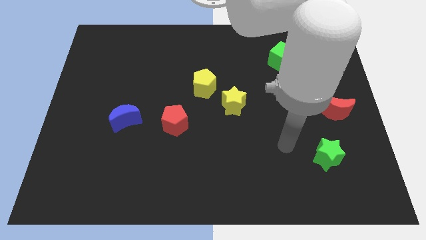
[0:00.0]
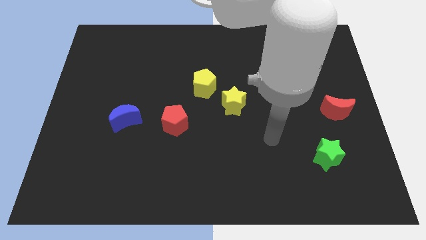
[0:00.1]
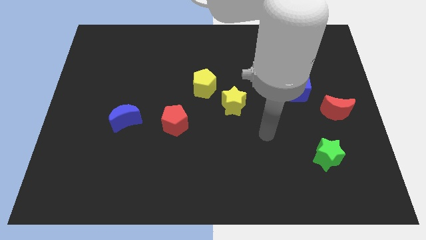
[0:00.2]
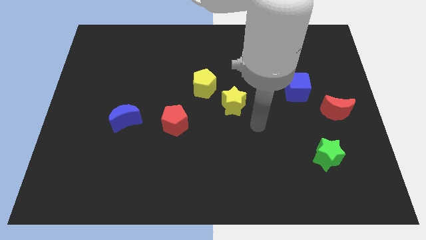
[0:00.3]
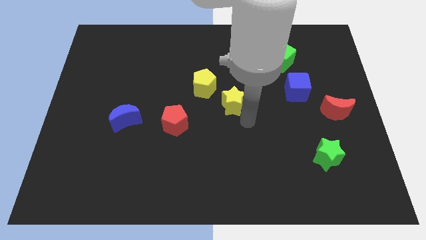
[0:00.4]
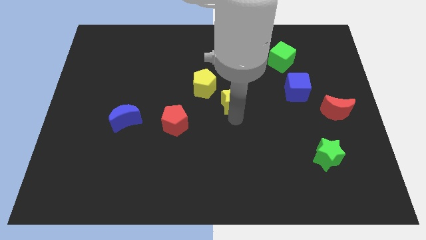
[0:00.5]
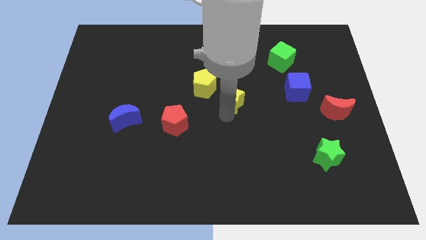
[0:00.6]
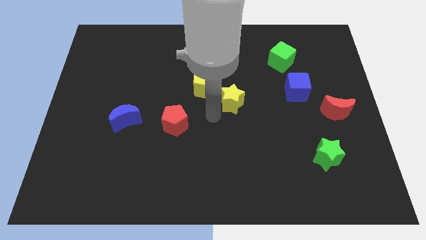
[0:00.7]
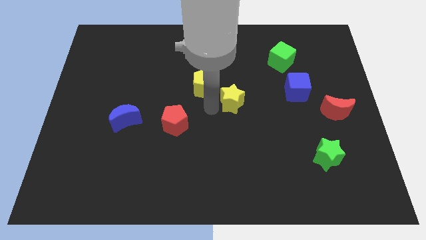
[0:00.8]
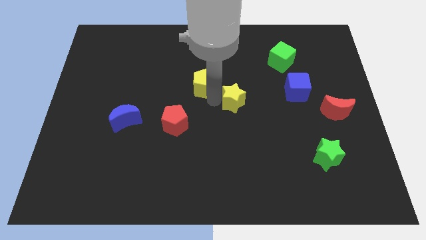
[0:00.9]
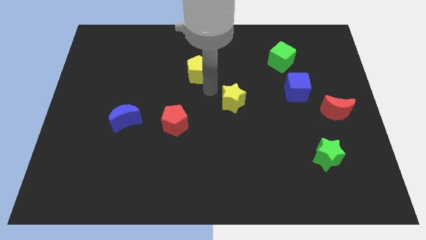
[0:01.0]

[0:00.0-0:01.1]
move the yellow star away from the yellow pentagon

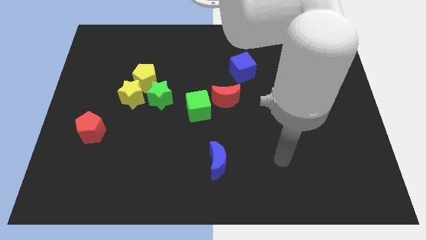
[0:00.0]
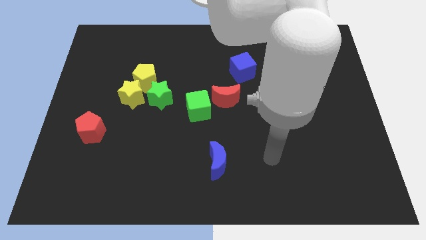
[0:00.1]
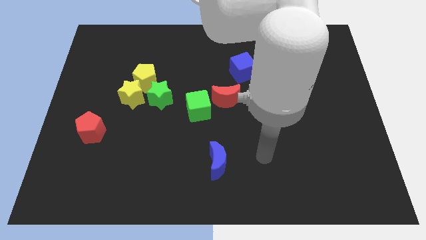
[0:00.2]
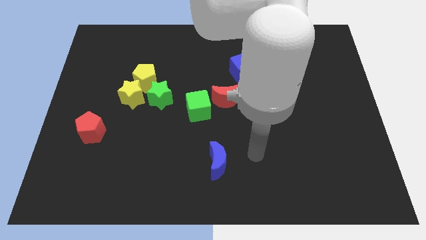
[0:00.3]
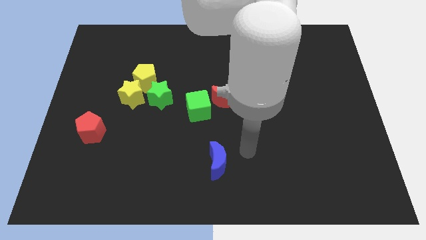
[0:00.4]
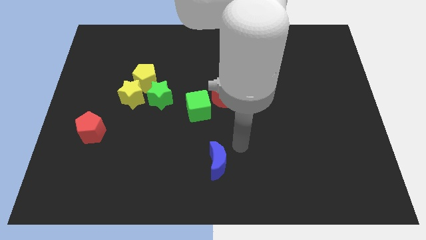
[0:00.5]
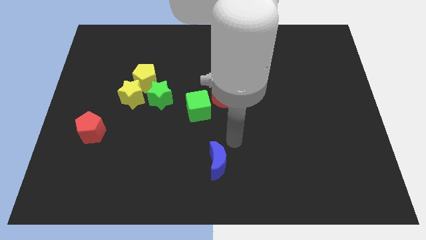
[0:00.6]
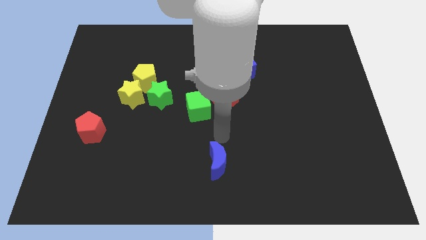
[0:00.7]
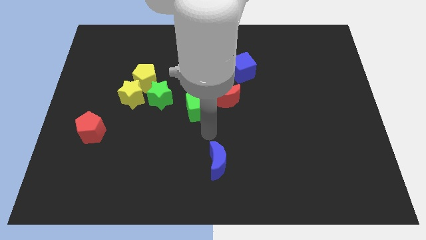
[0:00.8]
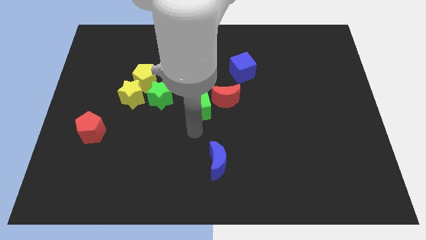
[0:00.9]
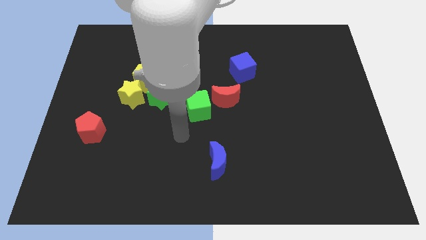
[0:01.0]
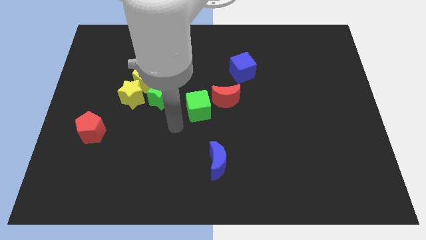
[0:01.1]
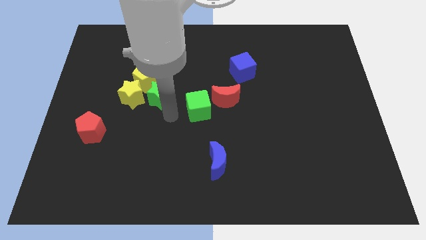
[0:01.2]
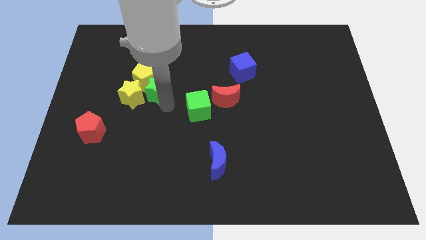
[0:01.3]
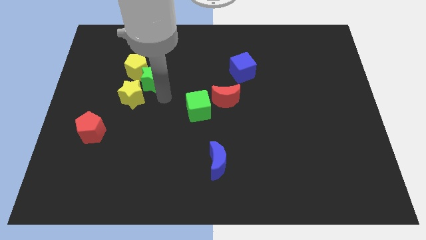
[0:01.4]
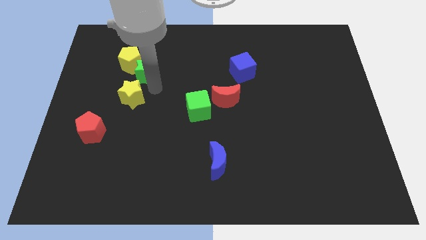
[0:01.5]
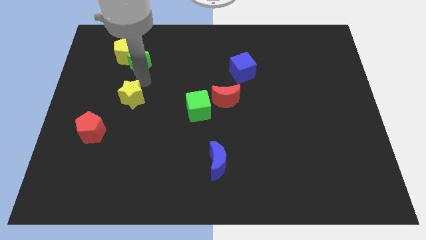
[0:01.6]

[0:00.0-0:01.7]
separate the yellow star from the yellow pentagon and green star

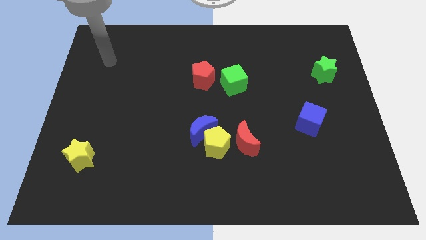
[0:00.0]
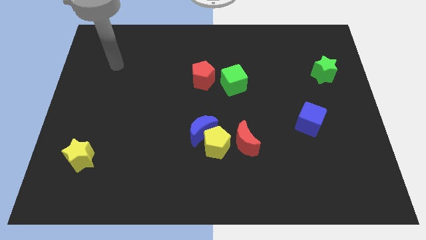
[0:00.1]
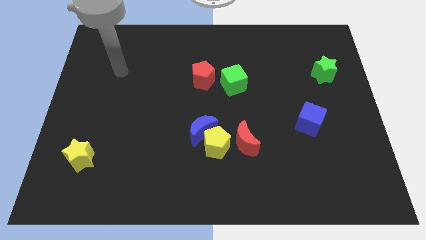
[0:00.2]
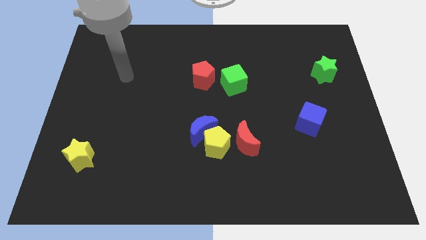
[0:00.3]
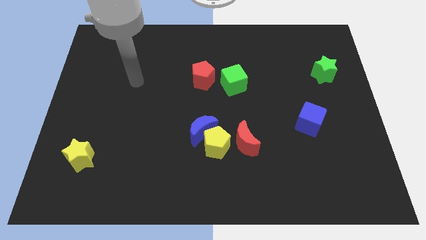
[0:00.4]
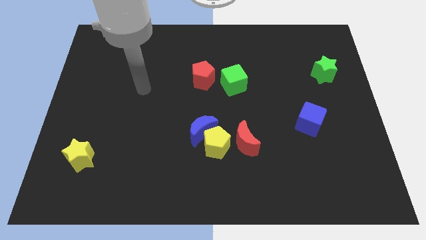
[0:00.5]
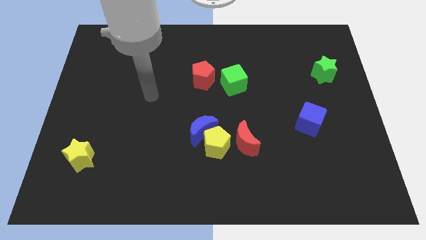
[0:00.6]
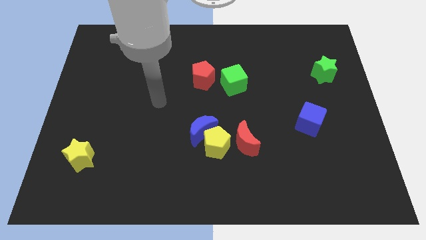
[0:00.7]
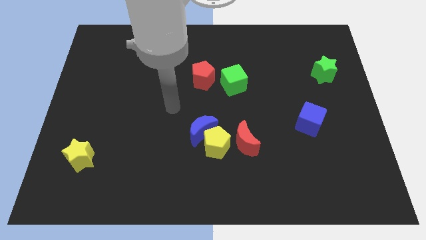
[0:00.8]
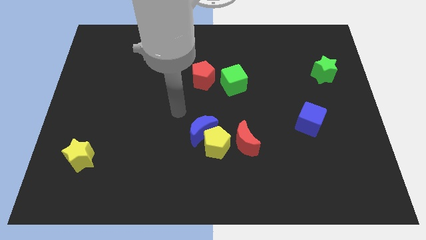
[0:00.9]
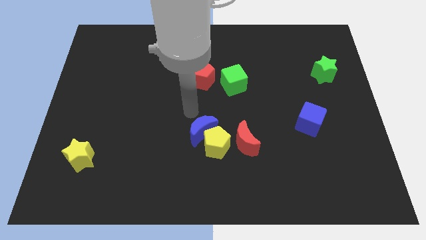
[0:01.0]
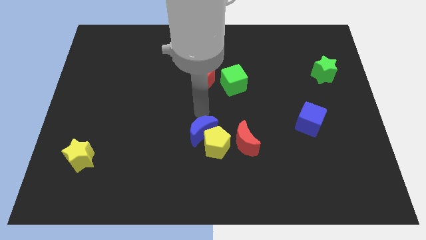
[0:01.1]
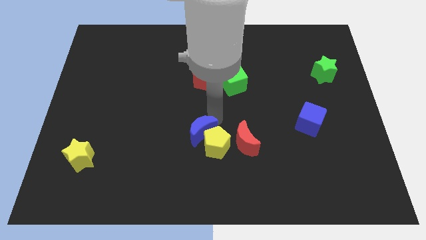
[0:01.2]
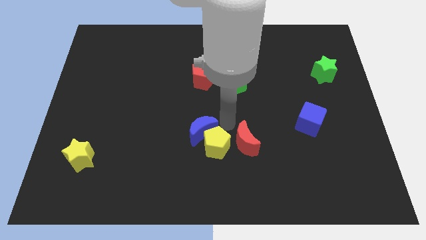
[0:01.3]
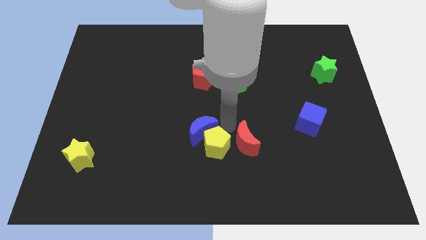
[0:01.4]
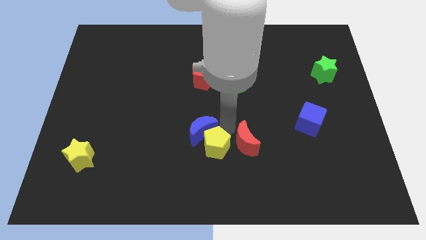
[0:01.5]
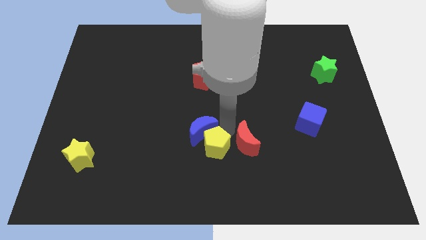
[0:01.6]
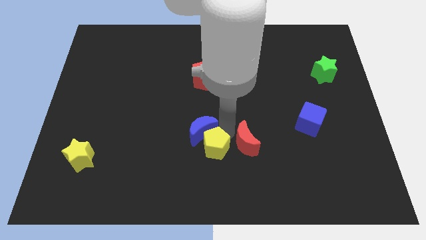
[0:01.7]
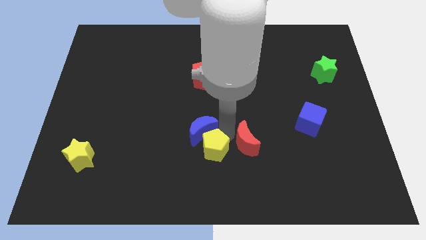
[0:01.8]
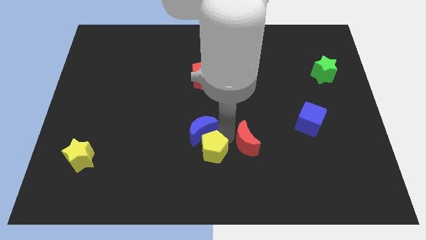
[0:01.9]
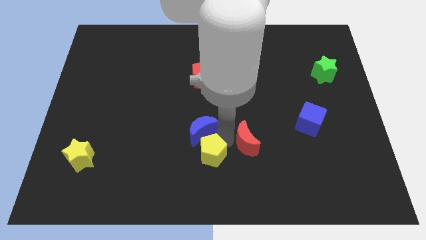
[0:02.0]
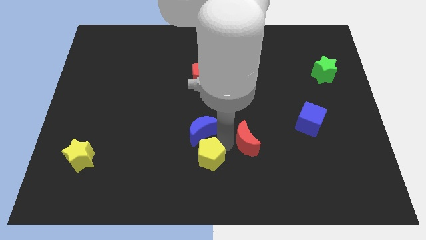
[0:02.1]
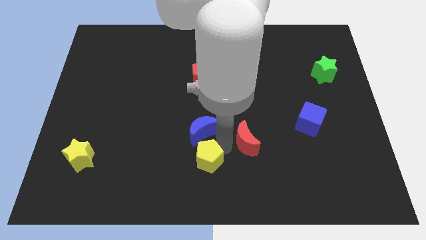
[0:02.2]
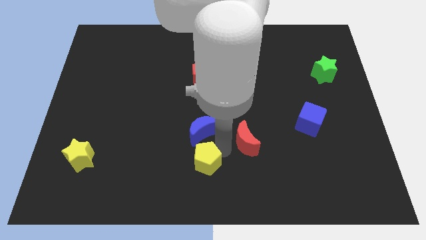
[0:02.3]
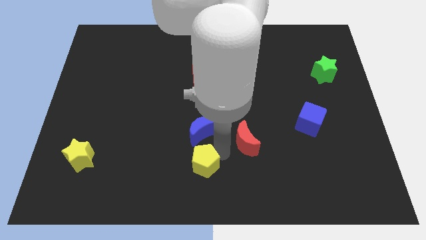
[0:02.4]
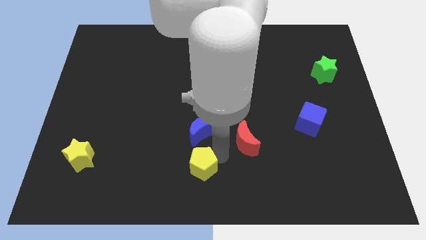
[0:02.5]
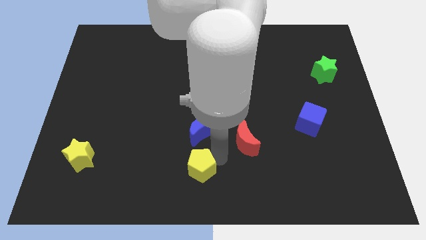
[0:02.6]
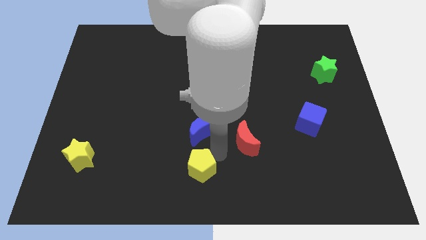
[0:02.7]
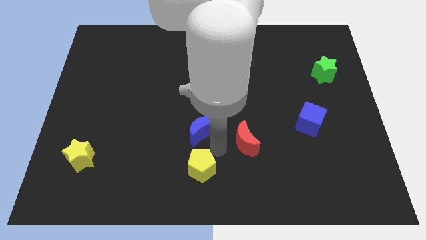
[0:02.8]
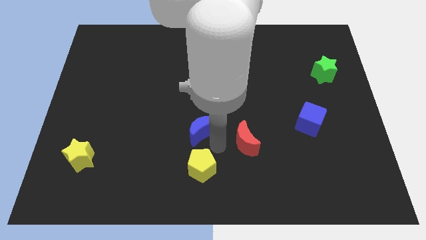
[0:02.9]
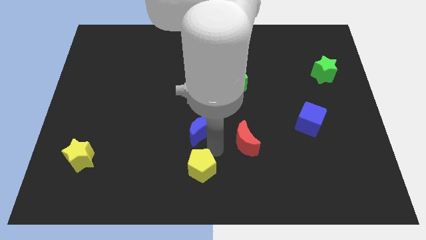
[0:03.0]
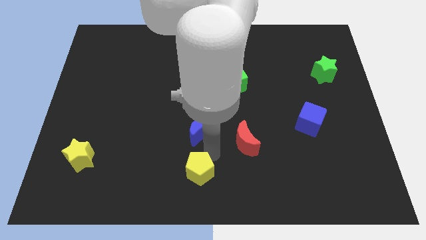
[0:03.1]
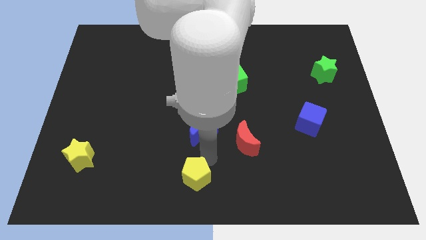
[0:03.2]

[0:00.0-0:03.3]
separate the yellow pentagon from the blue moon and red moon

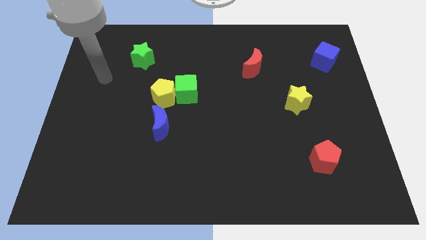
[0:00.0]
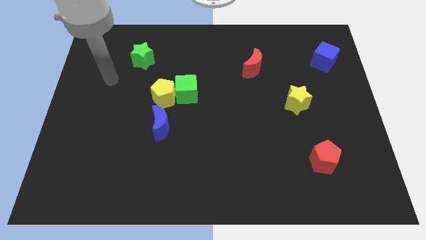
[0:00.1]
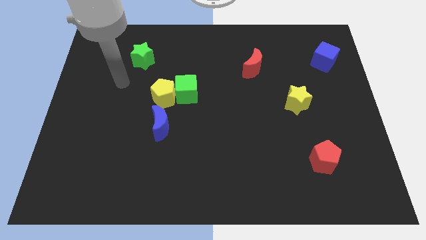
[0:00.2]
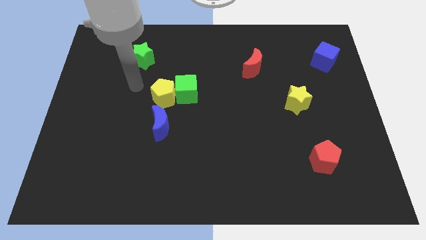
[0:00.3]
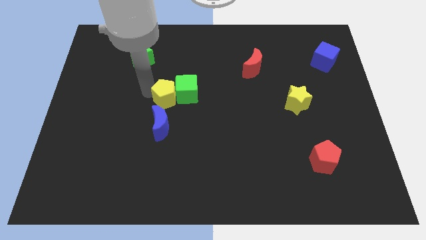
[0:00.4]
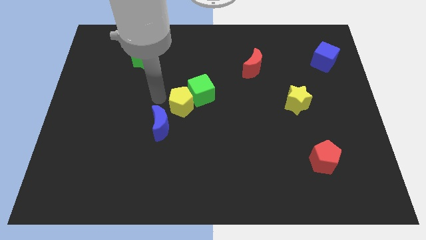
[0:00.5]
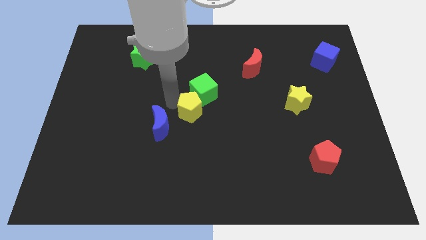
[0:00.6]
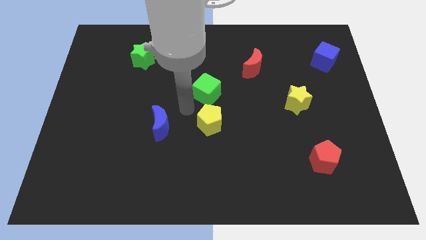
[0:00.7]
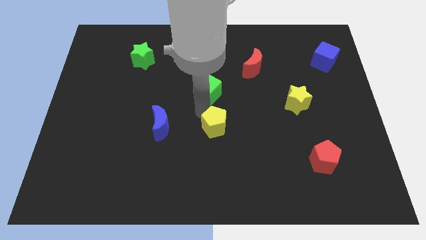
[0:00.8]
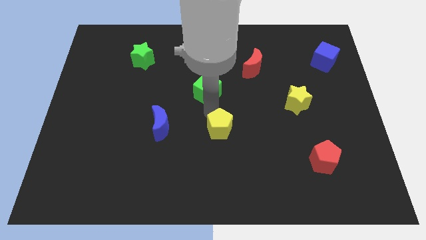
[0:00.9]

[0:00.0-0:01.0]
move the green cube away from the yellow pentagon

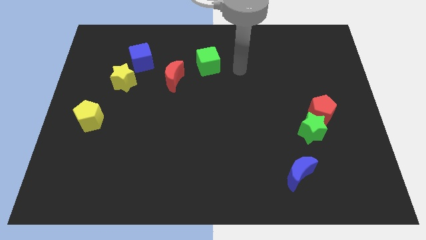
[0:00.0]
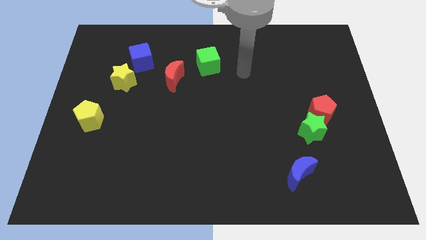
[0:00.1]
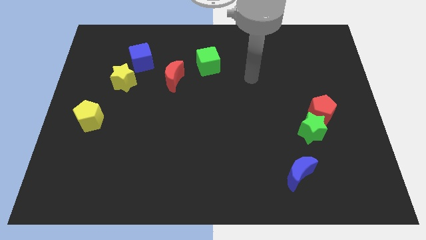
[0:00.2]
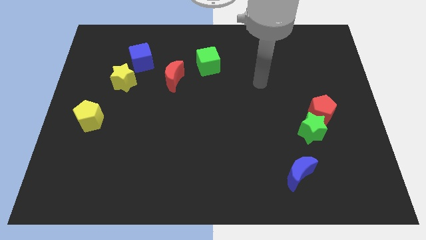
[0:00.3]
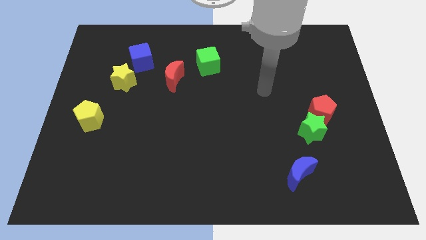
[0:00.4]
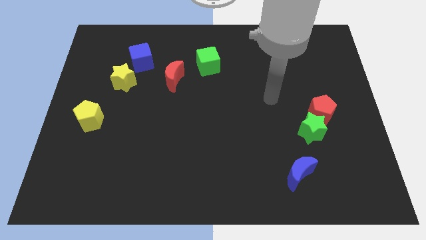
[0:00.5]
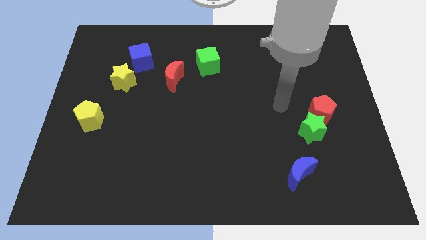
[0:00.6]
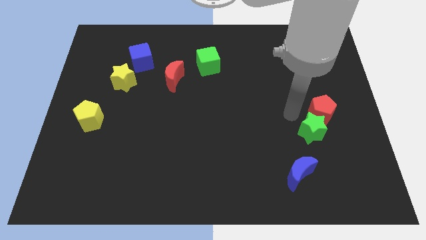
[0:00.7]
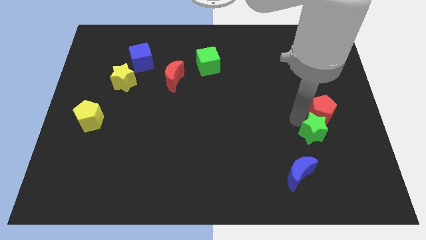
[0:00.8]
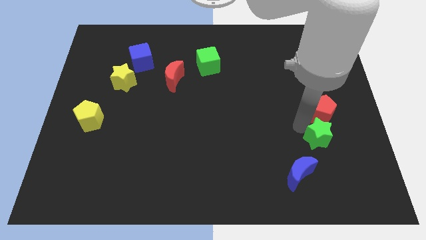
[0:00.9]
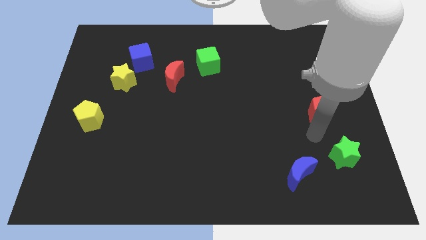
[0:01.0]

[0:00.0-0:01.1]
separate the red pentagon from the green star

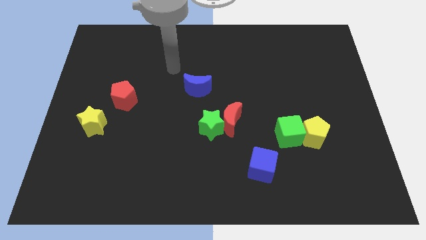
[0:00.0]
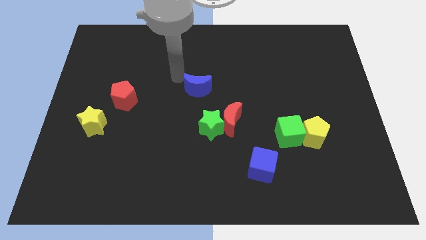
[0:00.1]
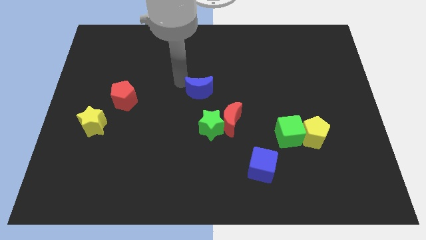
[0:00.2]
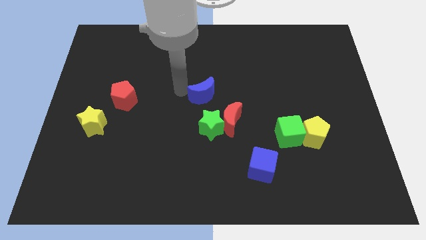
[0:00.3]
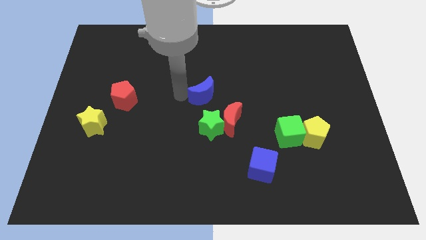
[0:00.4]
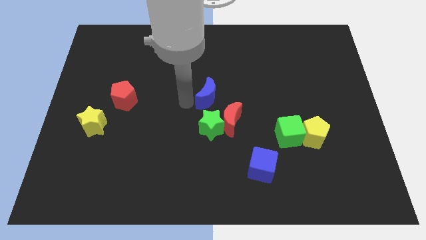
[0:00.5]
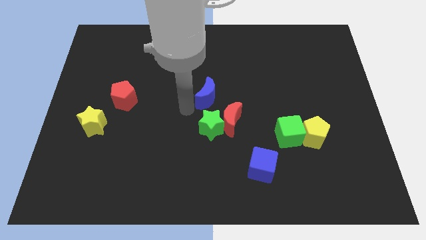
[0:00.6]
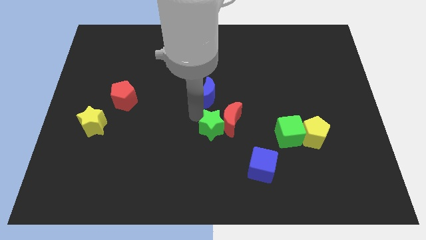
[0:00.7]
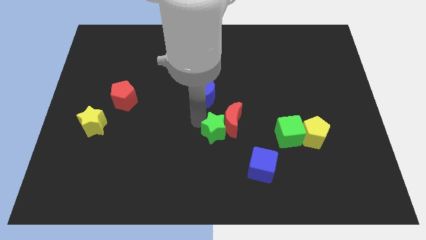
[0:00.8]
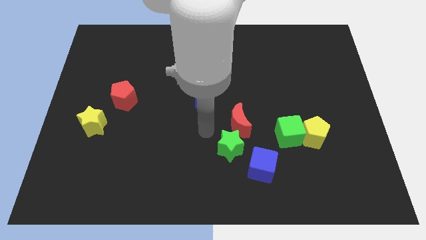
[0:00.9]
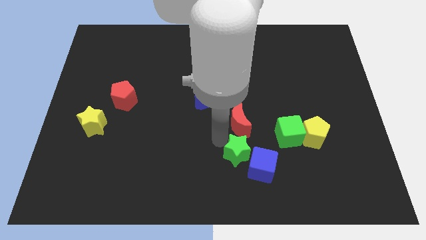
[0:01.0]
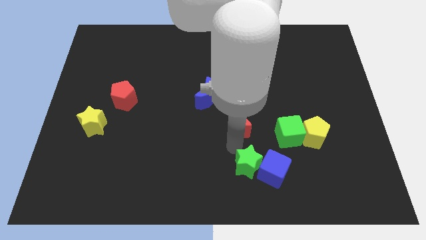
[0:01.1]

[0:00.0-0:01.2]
pull the red moon apart from the green star
